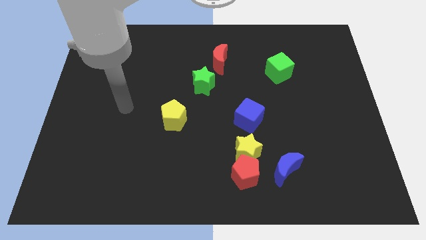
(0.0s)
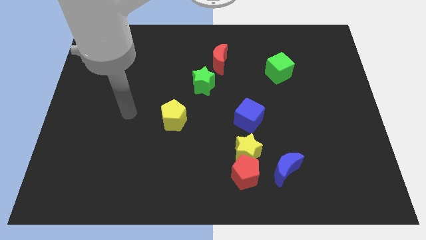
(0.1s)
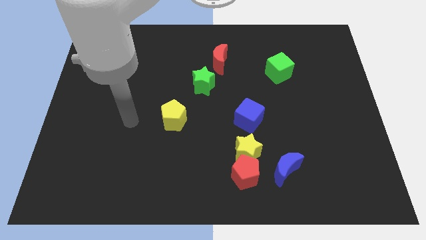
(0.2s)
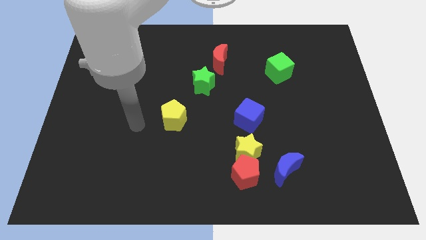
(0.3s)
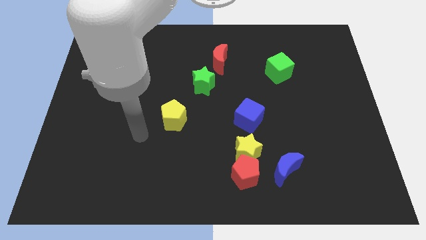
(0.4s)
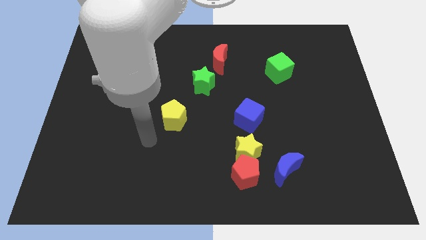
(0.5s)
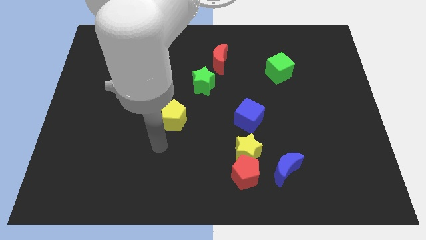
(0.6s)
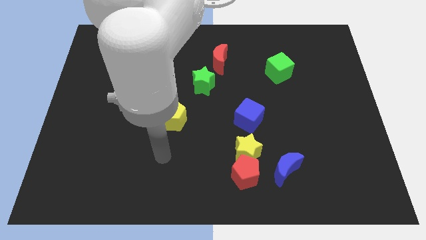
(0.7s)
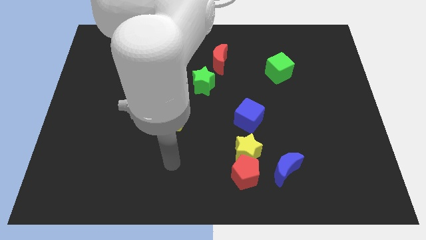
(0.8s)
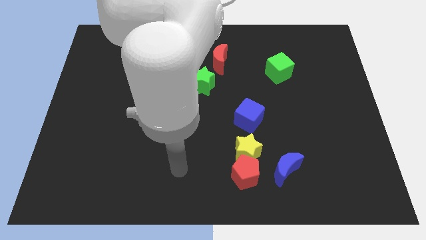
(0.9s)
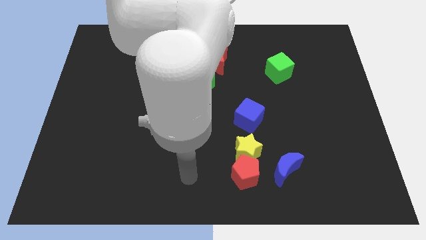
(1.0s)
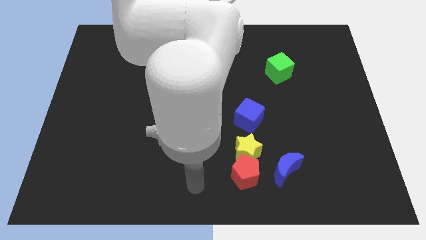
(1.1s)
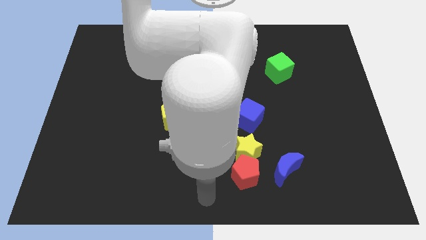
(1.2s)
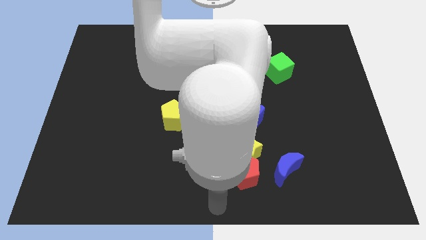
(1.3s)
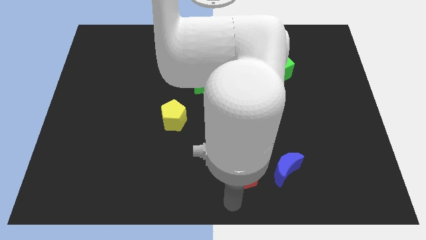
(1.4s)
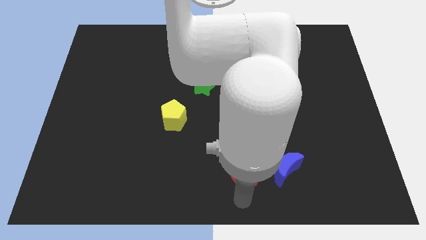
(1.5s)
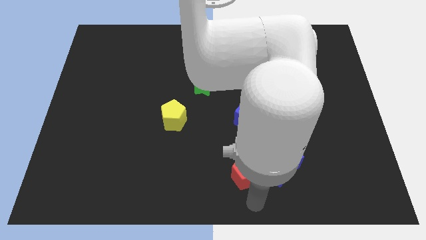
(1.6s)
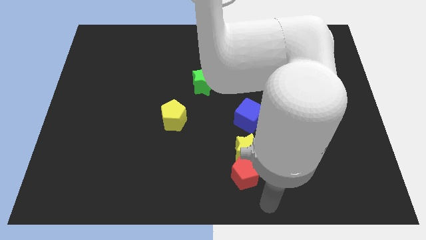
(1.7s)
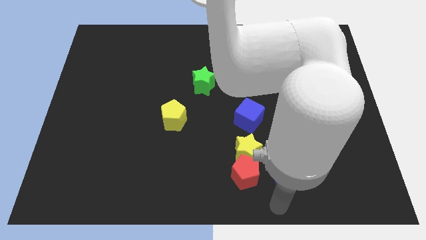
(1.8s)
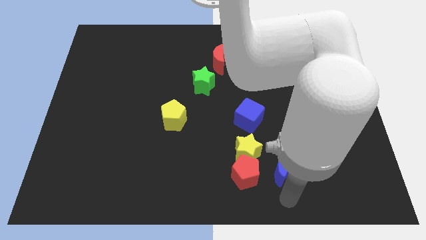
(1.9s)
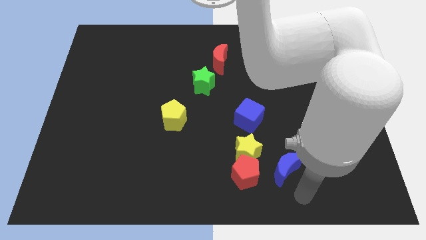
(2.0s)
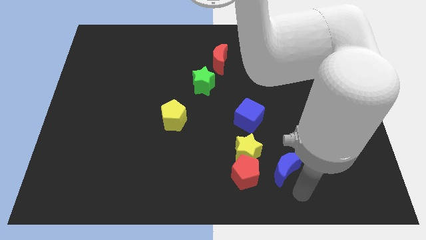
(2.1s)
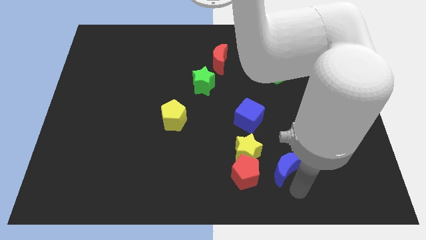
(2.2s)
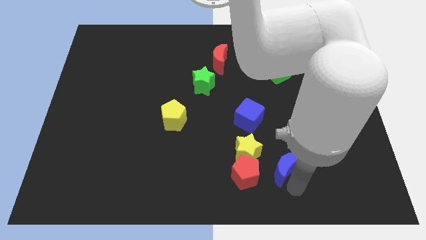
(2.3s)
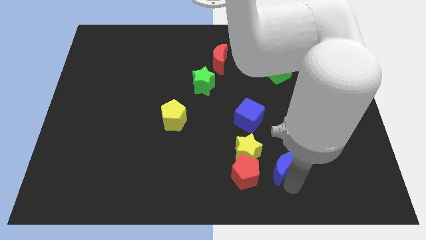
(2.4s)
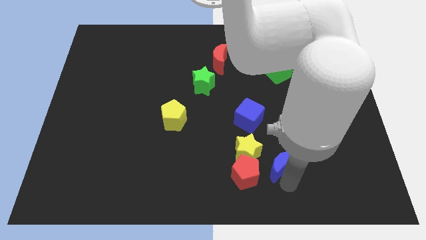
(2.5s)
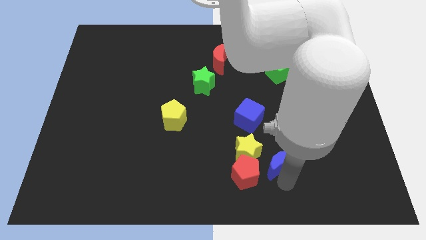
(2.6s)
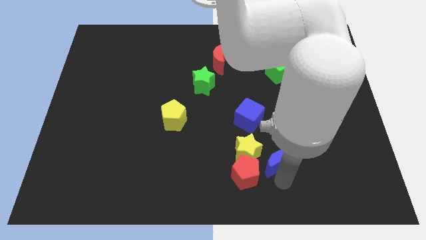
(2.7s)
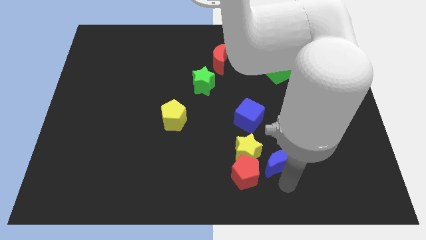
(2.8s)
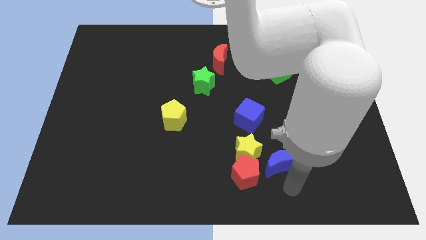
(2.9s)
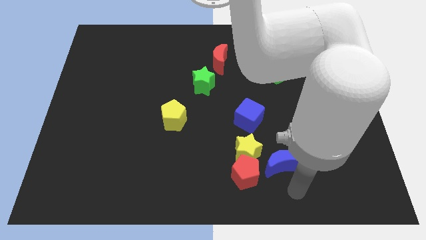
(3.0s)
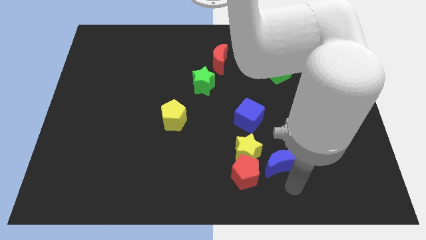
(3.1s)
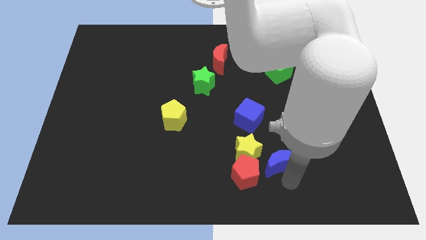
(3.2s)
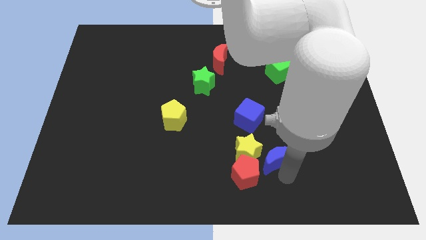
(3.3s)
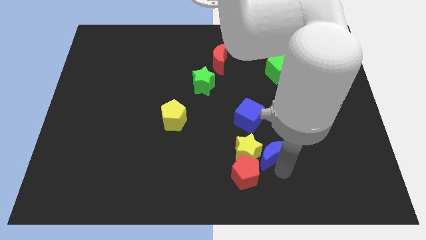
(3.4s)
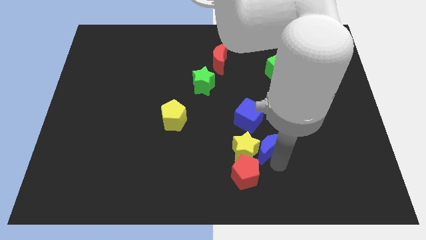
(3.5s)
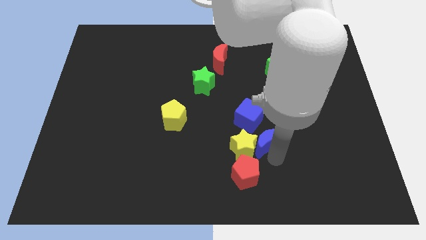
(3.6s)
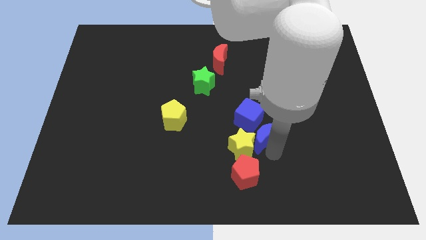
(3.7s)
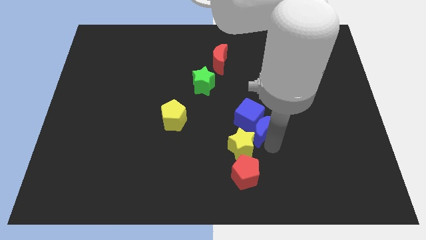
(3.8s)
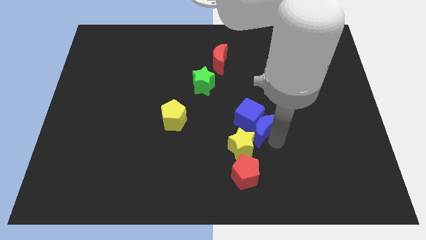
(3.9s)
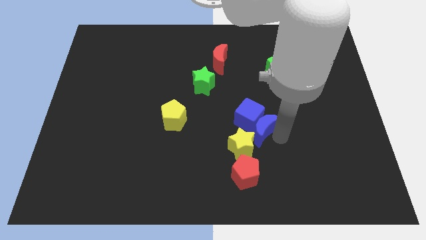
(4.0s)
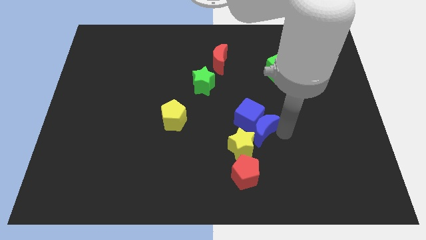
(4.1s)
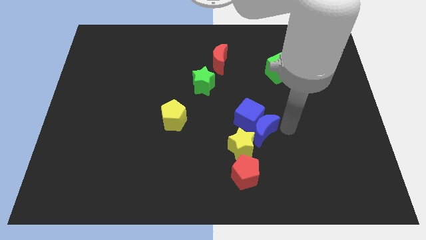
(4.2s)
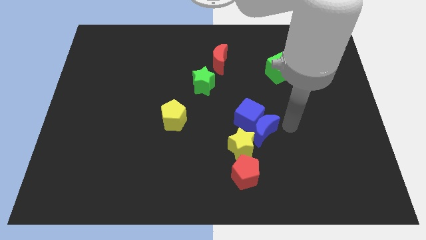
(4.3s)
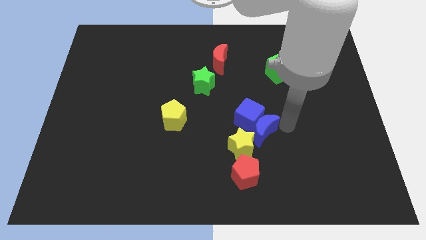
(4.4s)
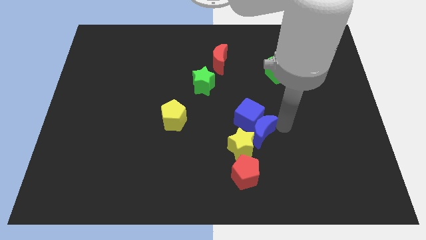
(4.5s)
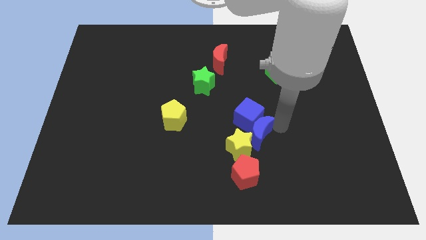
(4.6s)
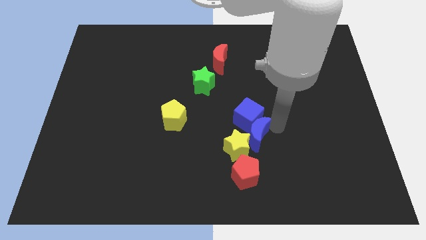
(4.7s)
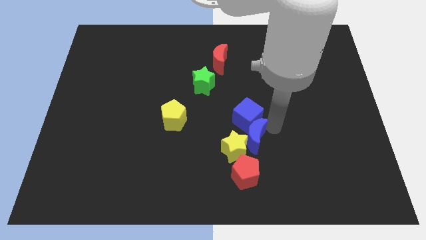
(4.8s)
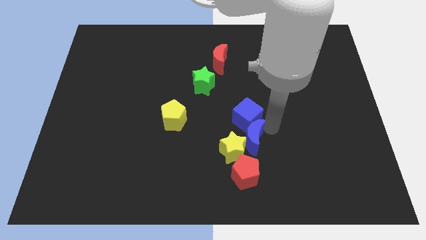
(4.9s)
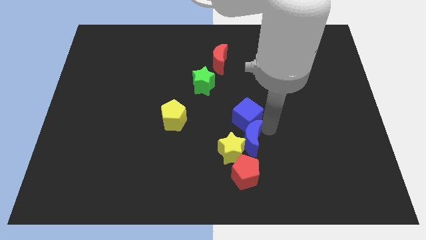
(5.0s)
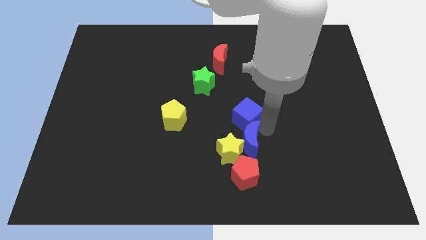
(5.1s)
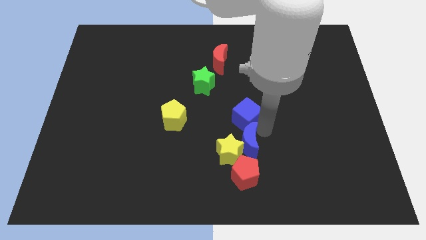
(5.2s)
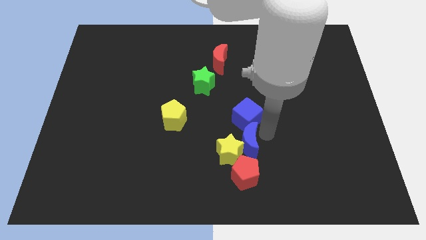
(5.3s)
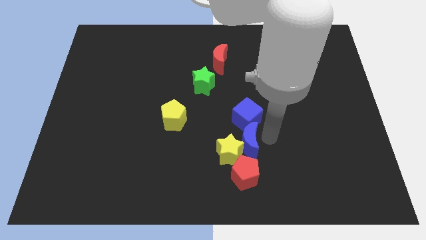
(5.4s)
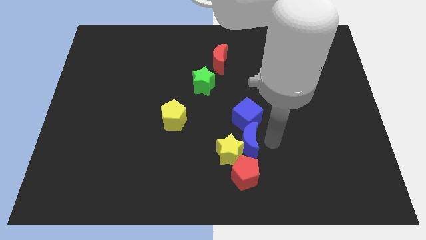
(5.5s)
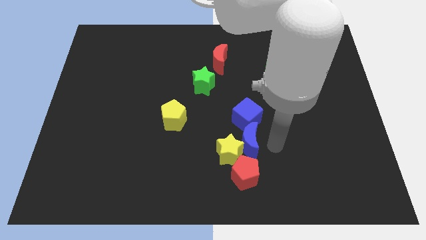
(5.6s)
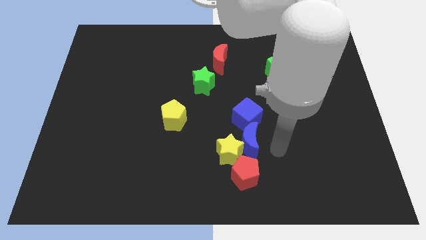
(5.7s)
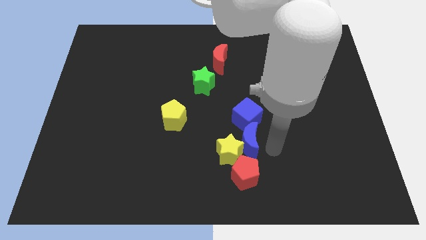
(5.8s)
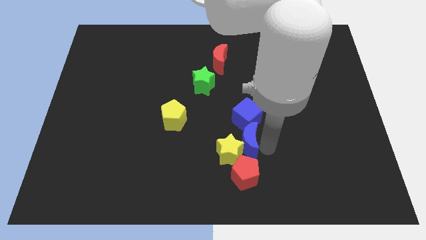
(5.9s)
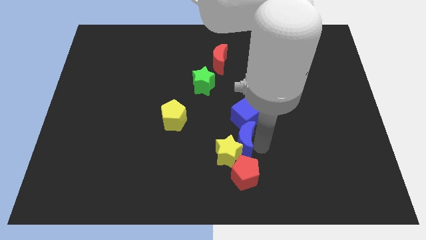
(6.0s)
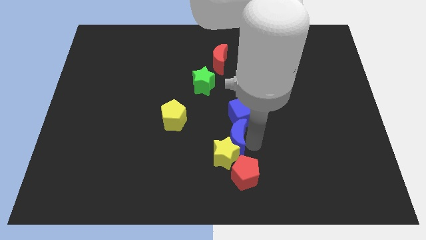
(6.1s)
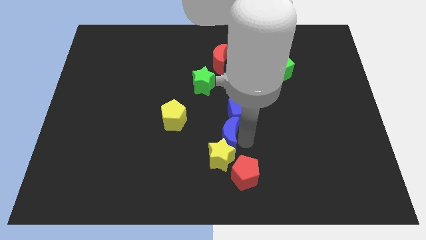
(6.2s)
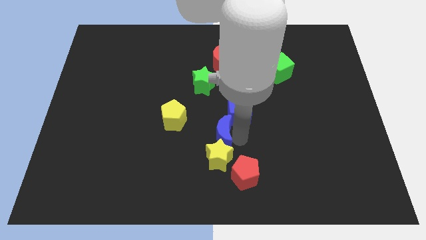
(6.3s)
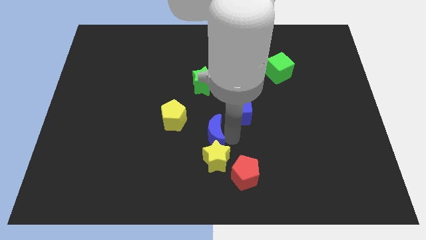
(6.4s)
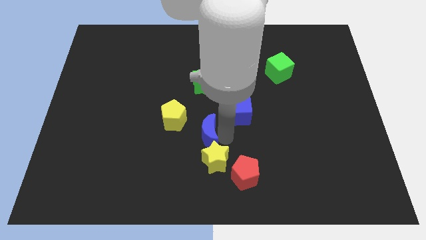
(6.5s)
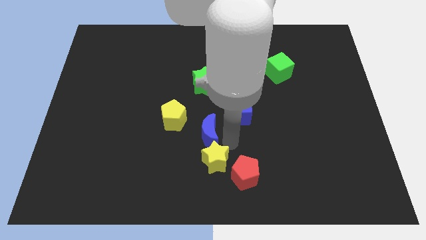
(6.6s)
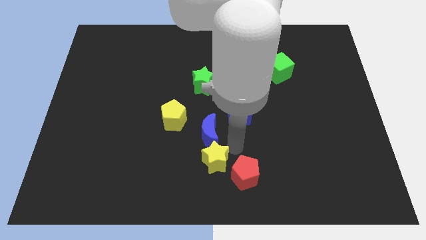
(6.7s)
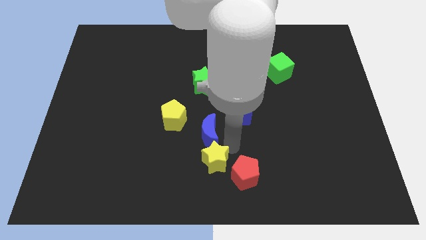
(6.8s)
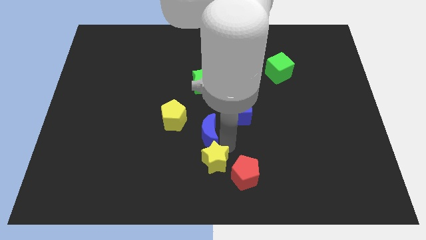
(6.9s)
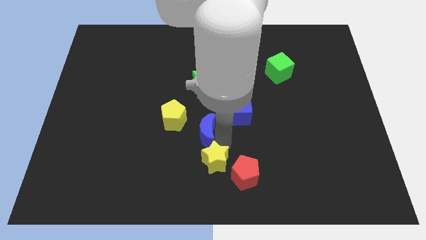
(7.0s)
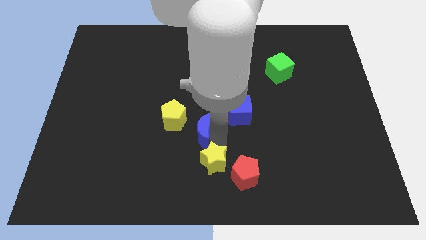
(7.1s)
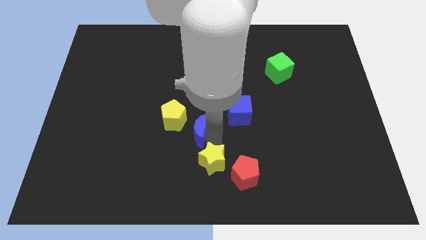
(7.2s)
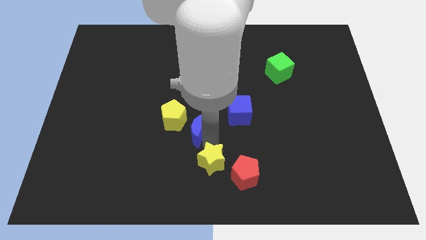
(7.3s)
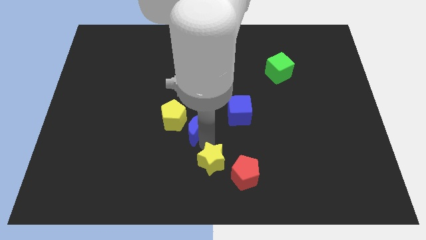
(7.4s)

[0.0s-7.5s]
put the blue moon towards the yellow pentagon
